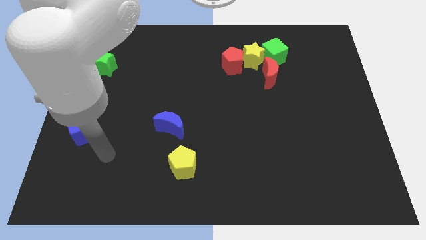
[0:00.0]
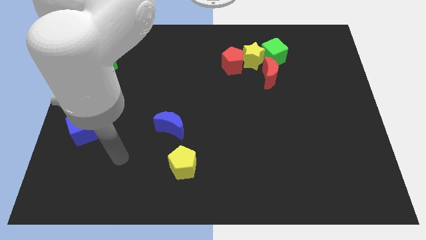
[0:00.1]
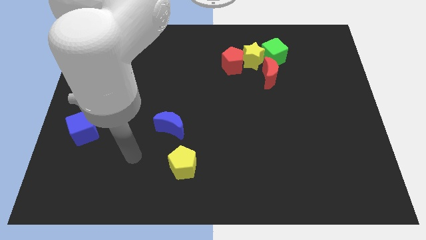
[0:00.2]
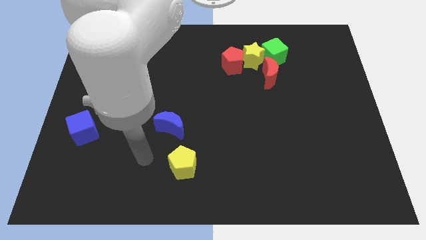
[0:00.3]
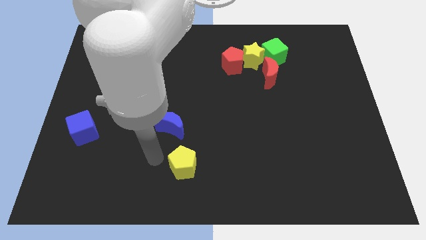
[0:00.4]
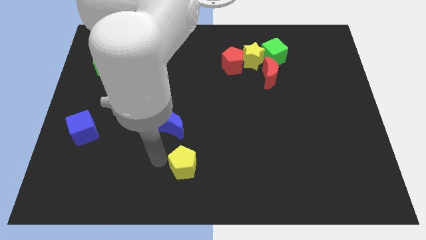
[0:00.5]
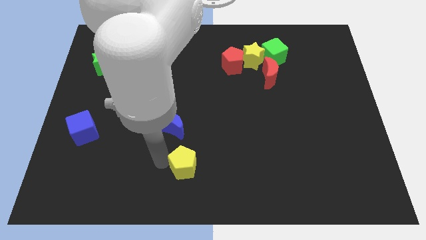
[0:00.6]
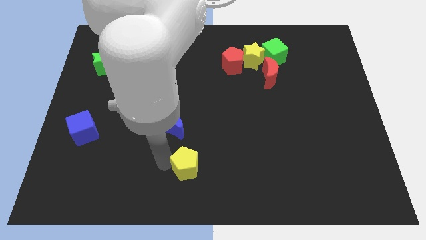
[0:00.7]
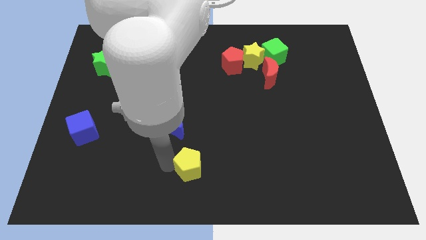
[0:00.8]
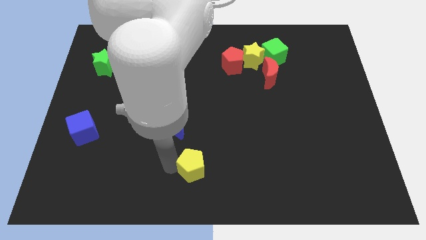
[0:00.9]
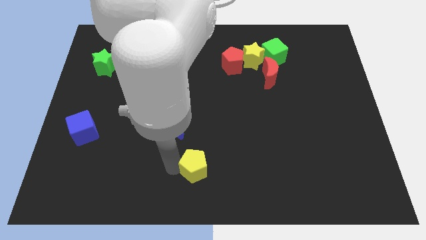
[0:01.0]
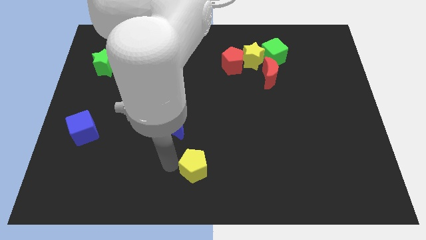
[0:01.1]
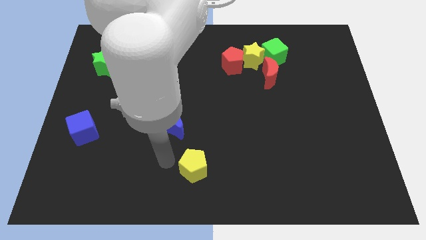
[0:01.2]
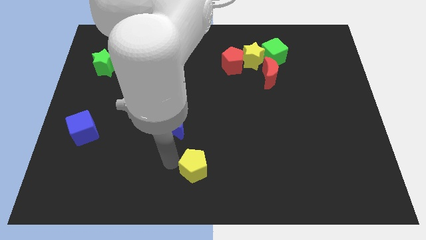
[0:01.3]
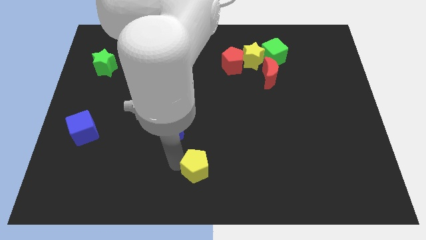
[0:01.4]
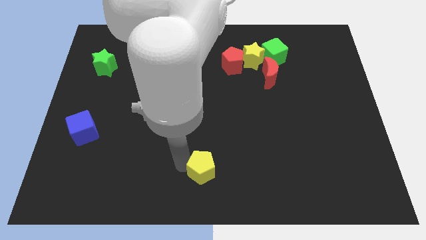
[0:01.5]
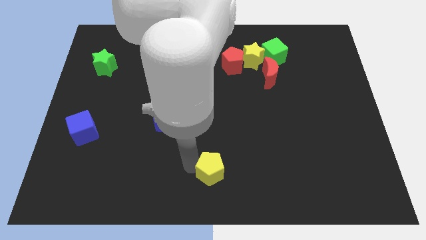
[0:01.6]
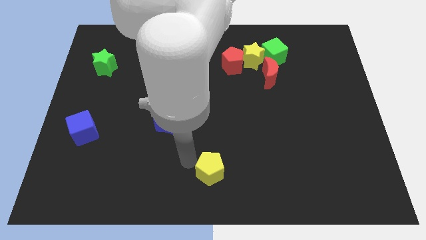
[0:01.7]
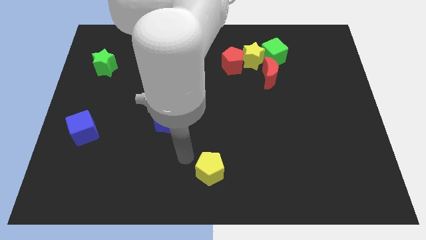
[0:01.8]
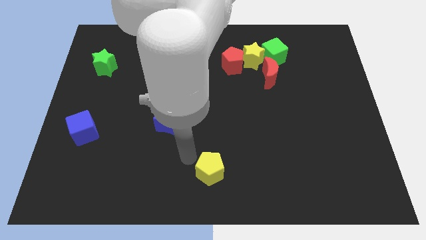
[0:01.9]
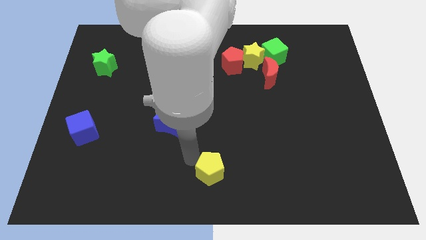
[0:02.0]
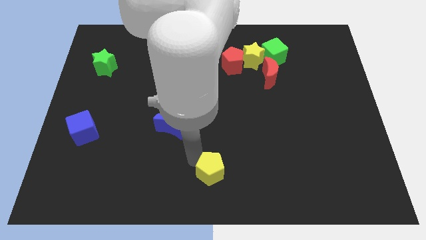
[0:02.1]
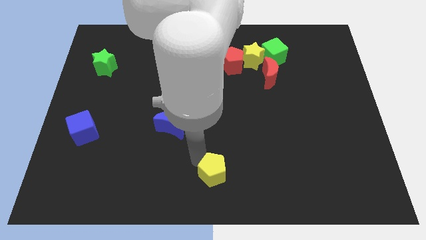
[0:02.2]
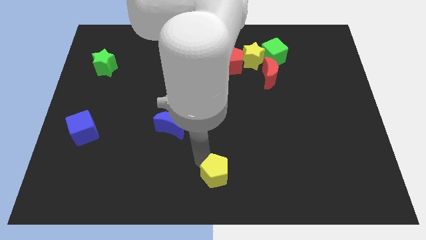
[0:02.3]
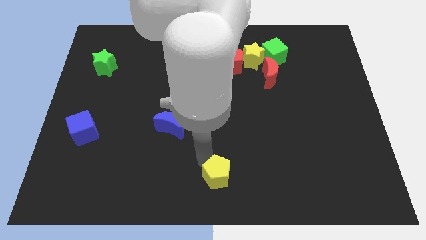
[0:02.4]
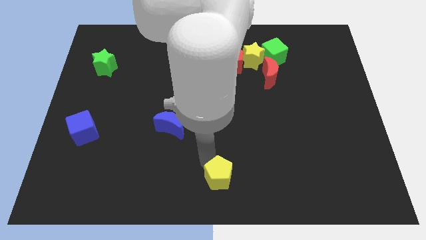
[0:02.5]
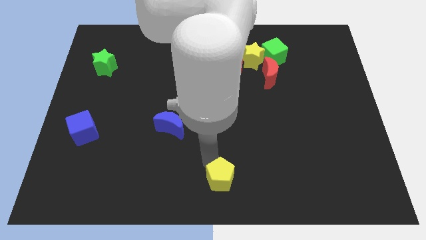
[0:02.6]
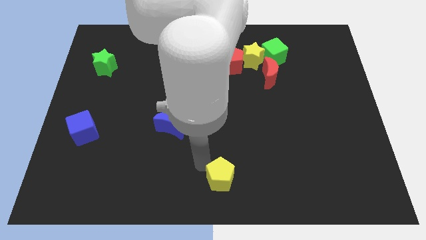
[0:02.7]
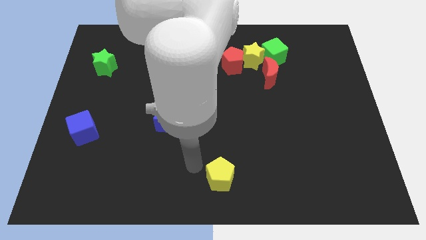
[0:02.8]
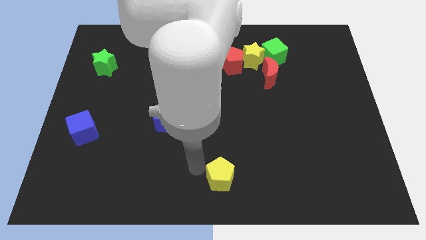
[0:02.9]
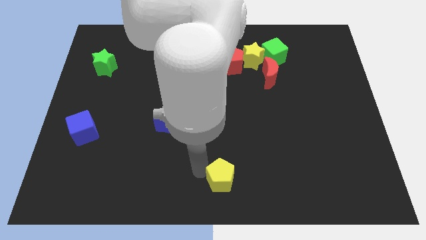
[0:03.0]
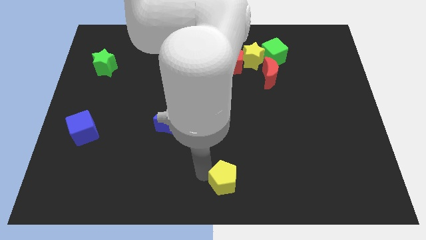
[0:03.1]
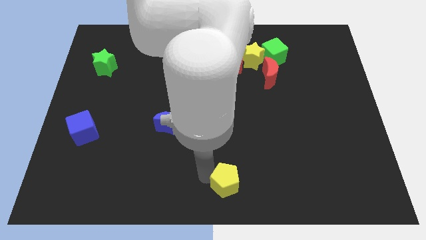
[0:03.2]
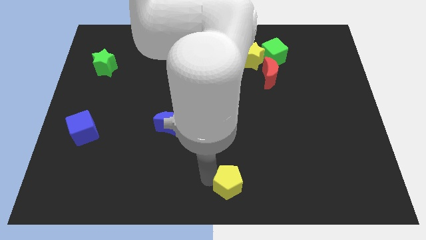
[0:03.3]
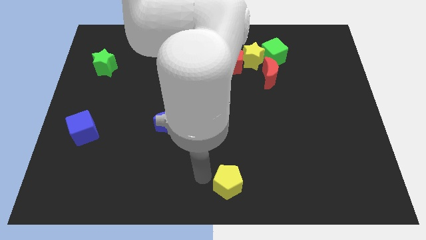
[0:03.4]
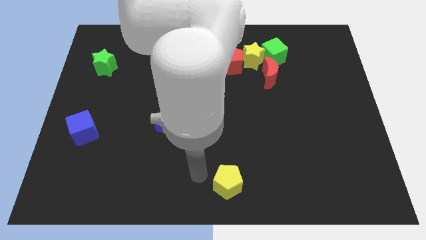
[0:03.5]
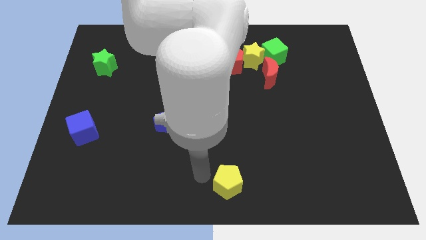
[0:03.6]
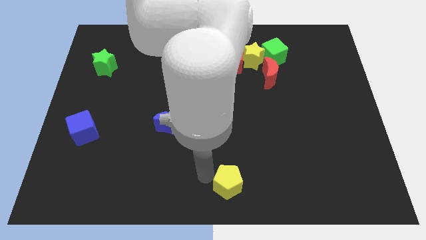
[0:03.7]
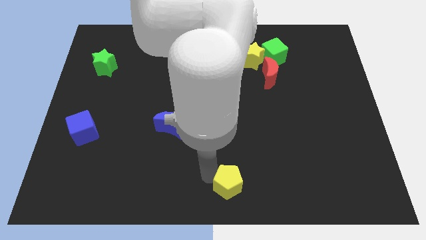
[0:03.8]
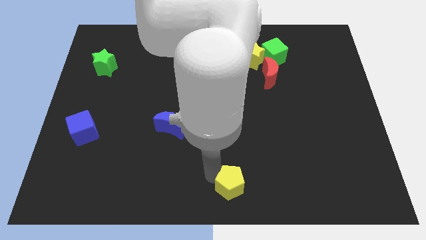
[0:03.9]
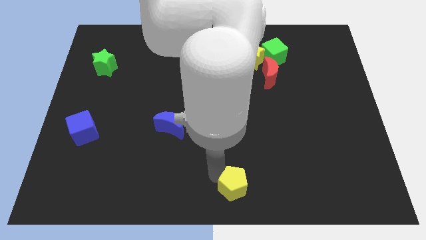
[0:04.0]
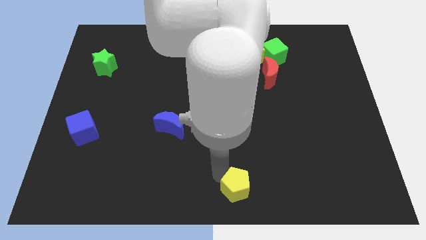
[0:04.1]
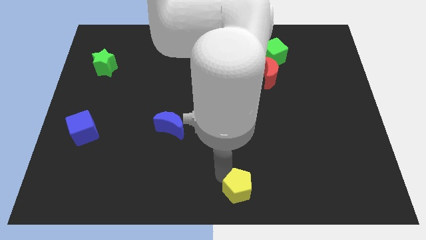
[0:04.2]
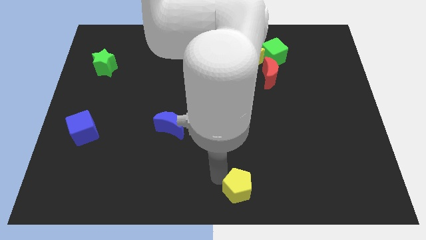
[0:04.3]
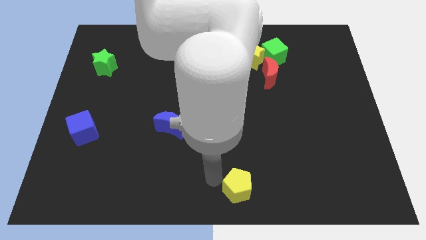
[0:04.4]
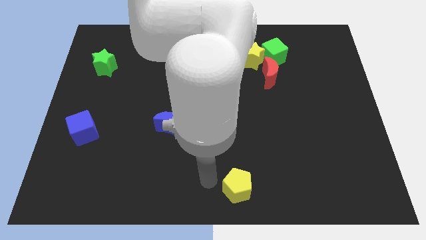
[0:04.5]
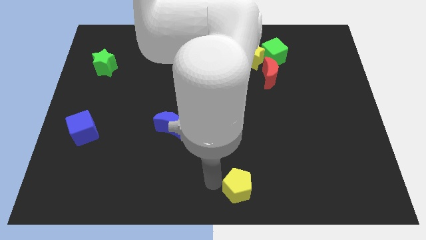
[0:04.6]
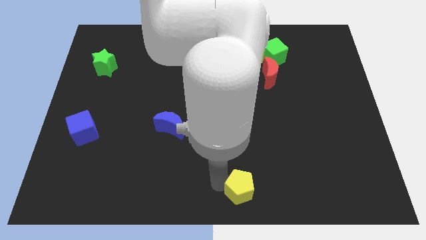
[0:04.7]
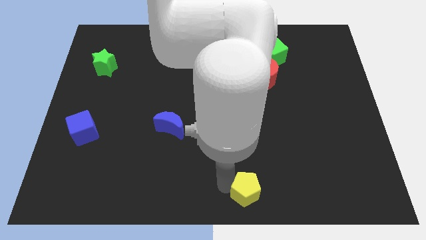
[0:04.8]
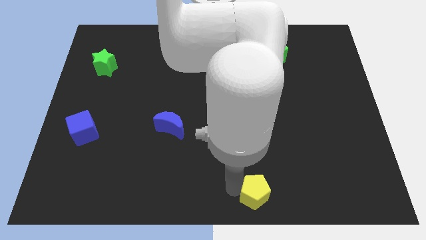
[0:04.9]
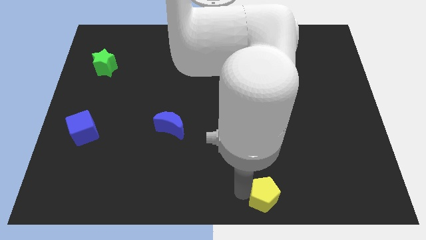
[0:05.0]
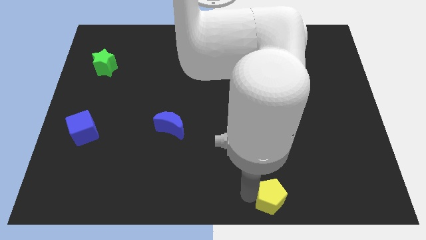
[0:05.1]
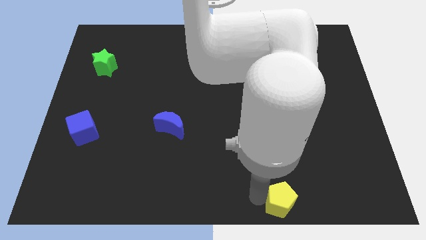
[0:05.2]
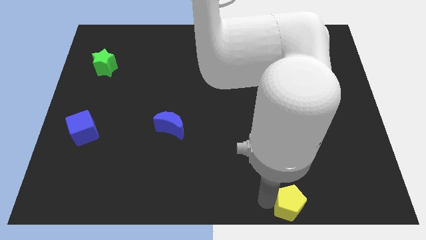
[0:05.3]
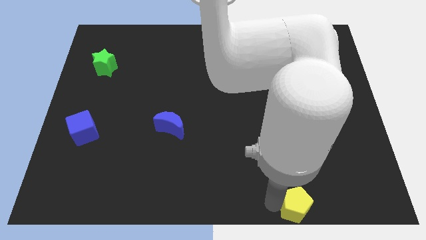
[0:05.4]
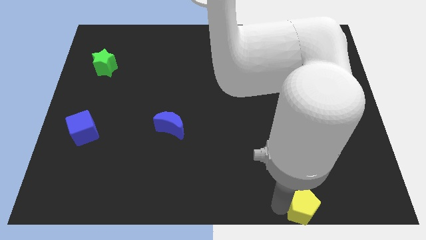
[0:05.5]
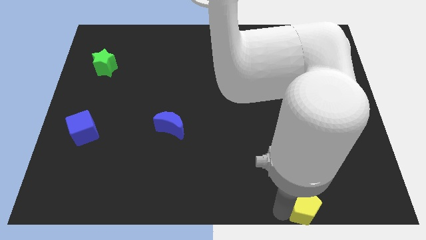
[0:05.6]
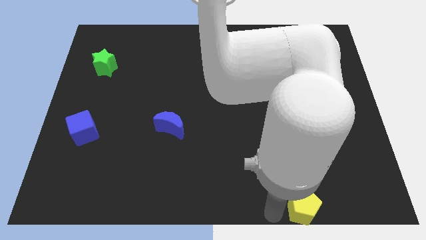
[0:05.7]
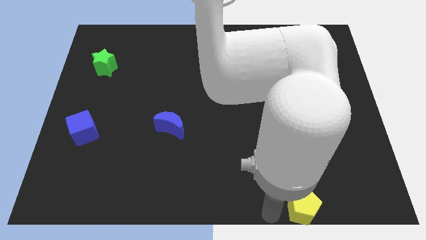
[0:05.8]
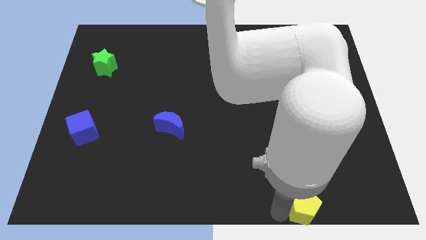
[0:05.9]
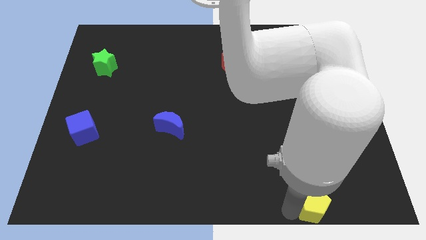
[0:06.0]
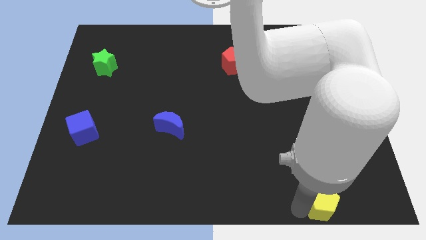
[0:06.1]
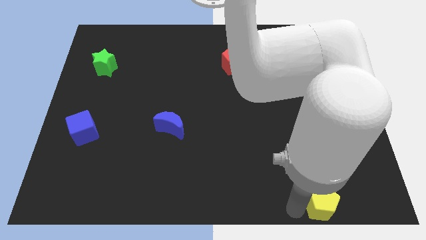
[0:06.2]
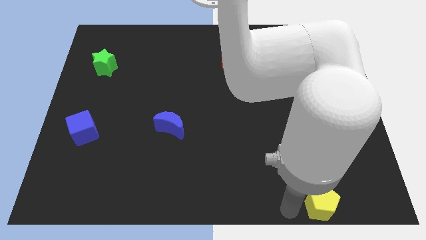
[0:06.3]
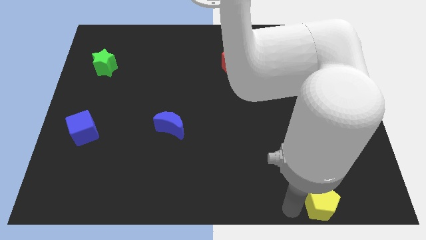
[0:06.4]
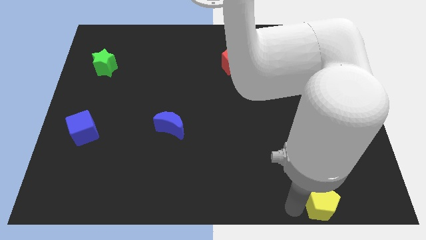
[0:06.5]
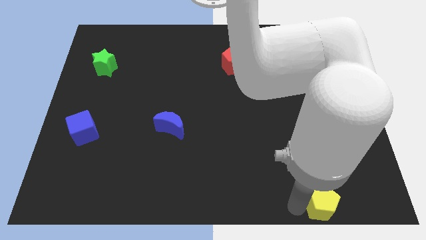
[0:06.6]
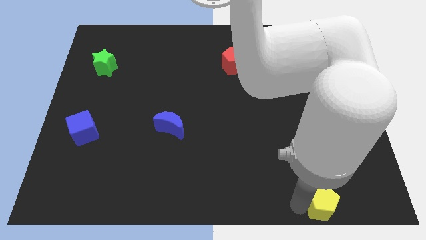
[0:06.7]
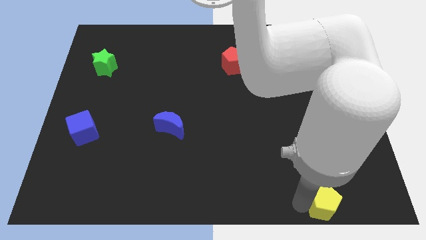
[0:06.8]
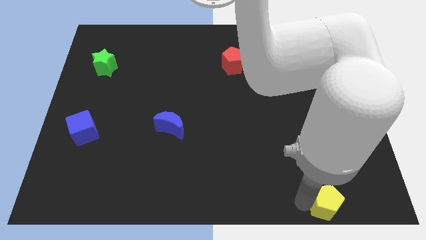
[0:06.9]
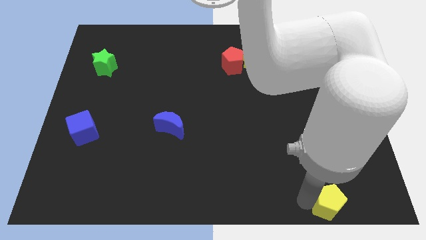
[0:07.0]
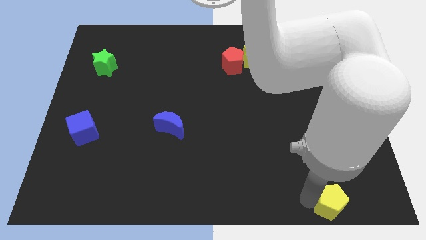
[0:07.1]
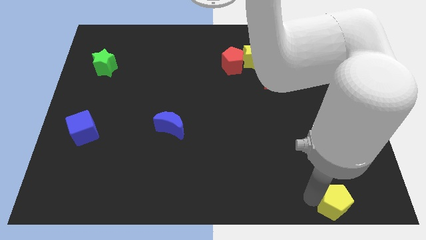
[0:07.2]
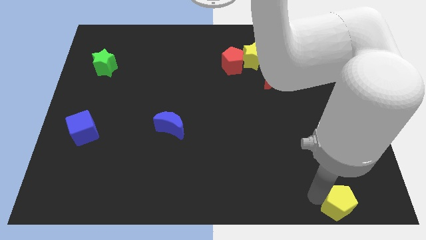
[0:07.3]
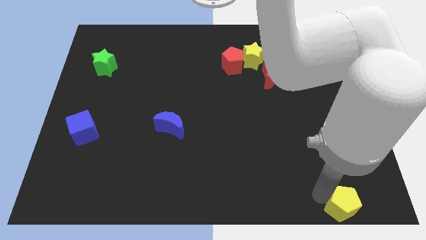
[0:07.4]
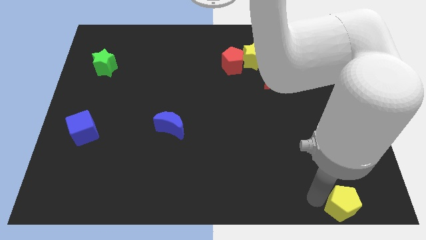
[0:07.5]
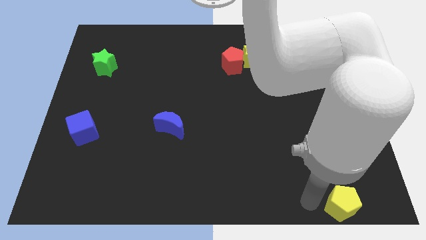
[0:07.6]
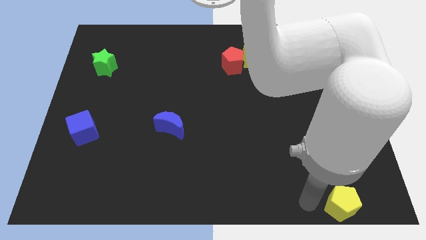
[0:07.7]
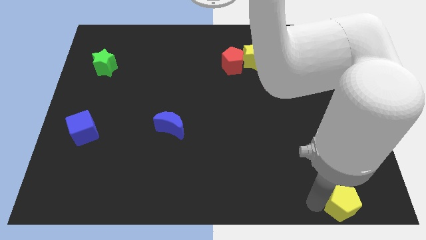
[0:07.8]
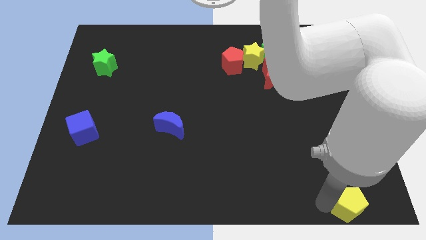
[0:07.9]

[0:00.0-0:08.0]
slide the yellow pentagon to the bottom right of the board
